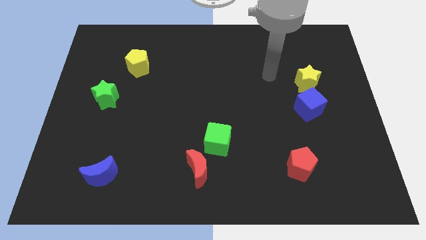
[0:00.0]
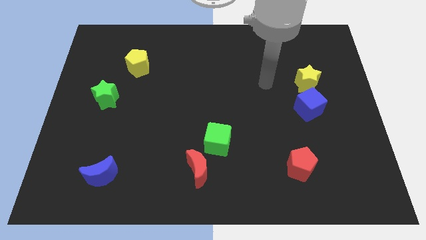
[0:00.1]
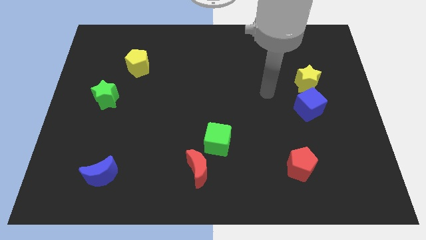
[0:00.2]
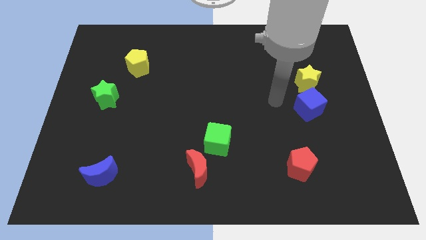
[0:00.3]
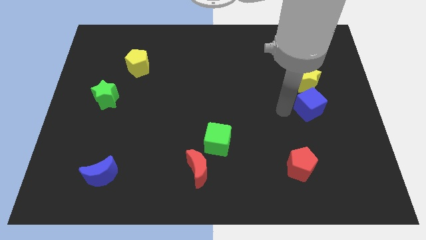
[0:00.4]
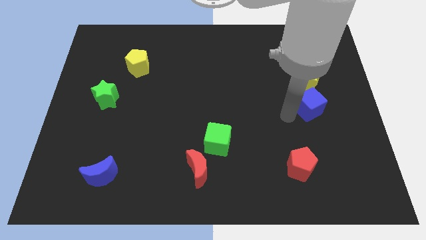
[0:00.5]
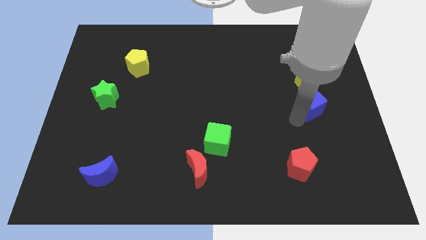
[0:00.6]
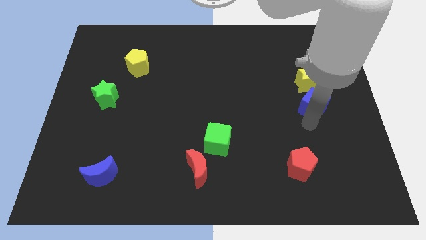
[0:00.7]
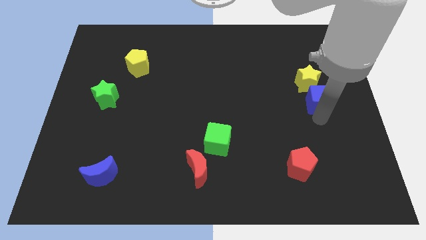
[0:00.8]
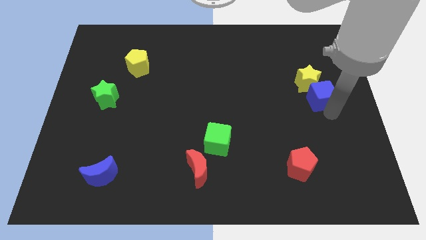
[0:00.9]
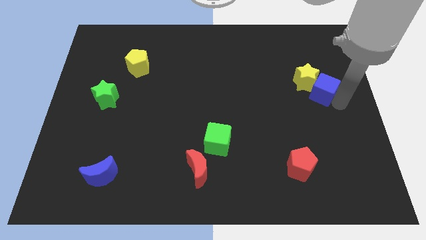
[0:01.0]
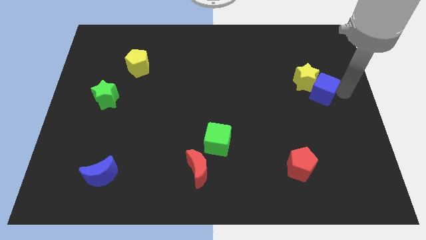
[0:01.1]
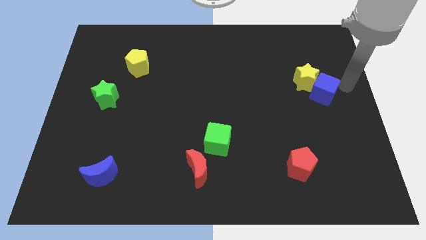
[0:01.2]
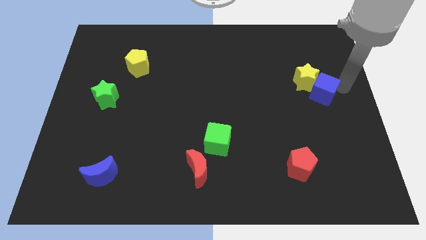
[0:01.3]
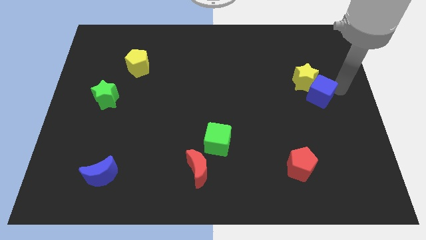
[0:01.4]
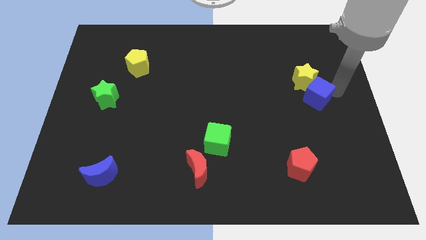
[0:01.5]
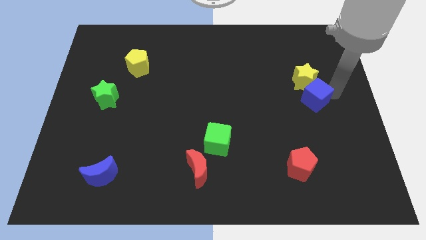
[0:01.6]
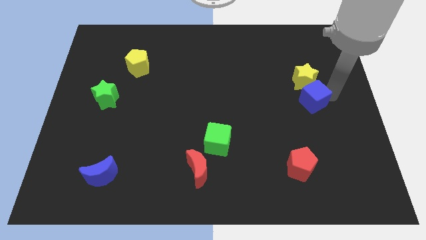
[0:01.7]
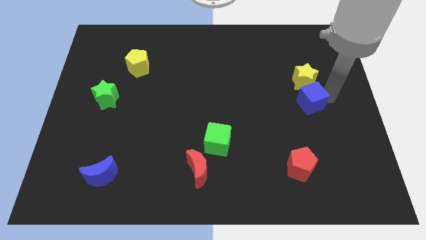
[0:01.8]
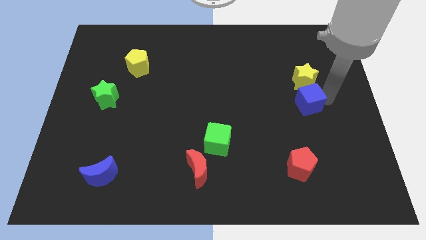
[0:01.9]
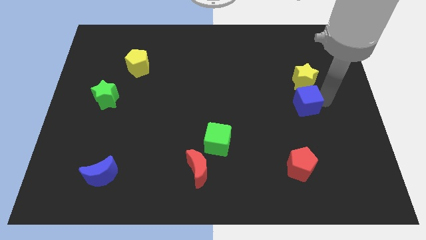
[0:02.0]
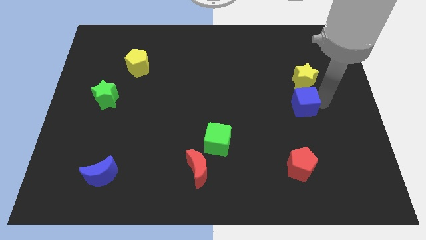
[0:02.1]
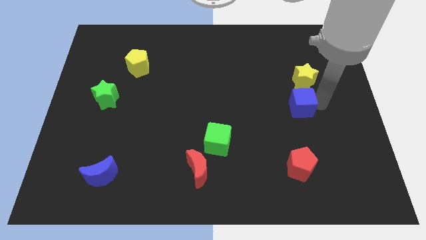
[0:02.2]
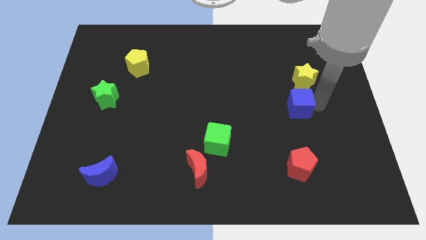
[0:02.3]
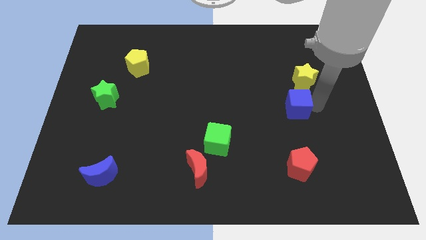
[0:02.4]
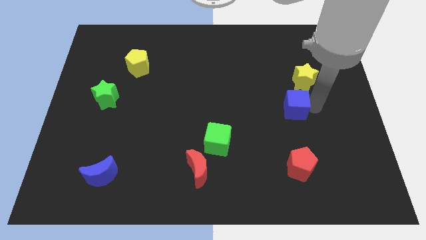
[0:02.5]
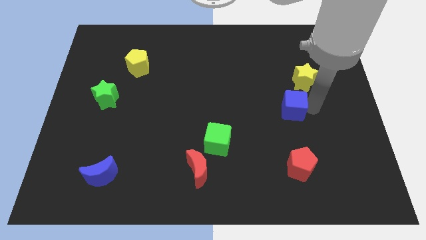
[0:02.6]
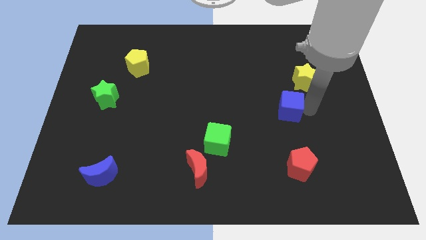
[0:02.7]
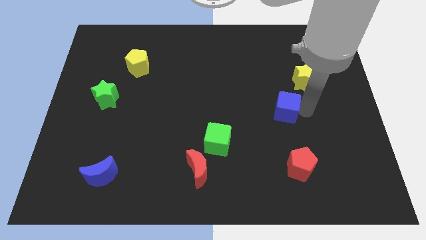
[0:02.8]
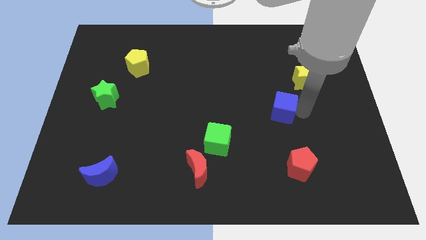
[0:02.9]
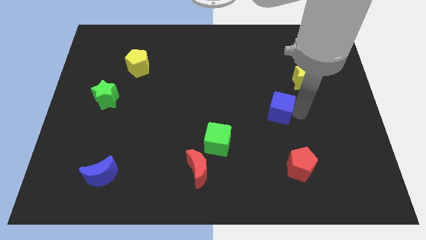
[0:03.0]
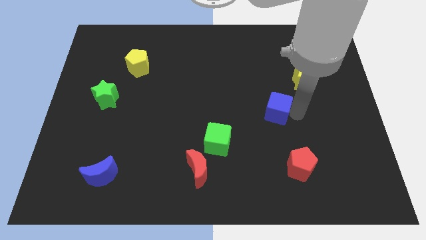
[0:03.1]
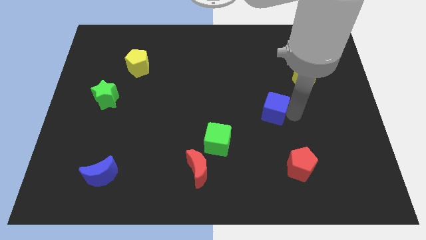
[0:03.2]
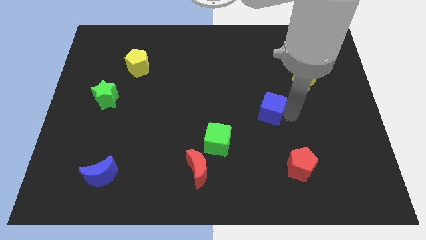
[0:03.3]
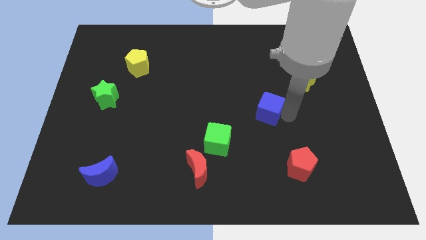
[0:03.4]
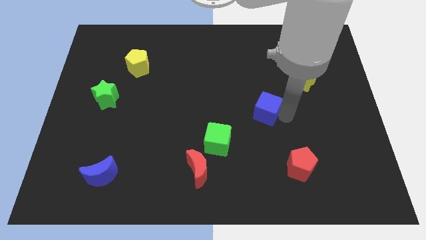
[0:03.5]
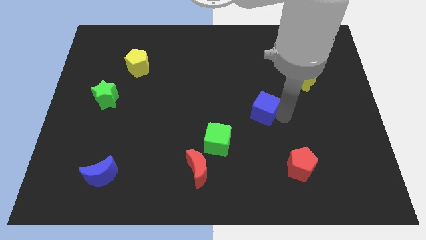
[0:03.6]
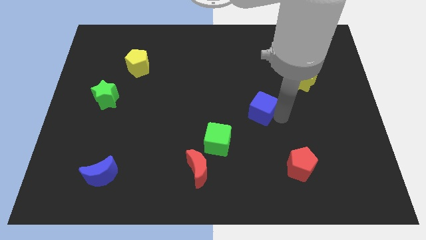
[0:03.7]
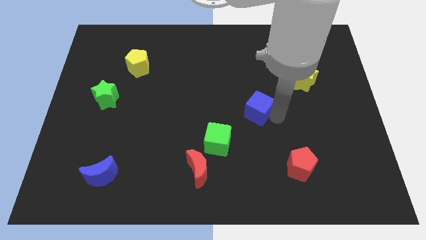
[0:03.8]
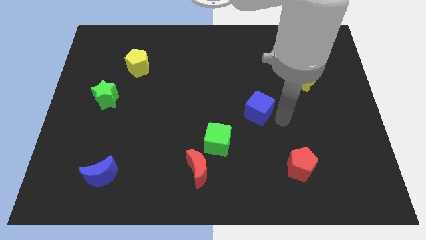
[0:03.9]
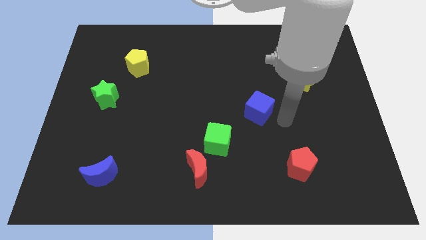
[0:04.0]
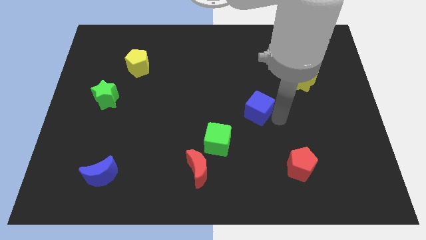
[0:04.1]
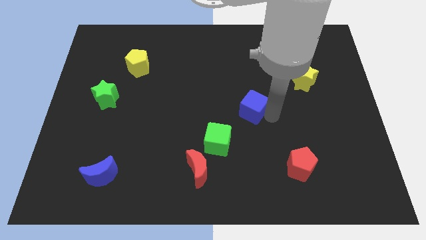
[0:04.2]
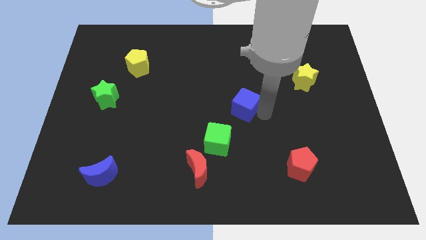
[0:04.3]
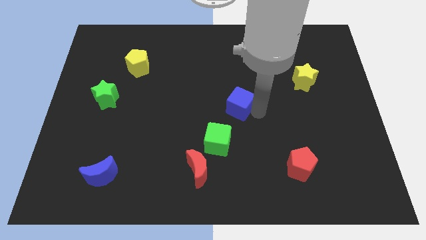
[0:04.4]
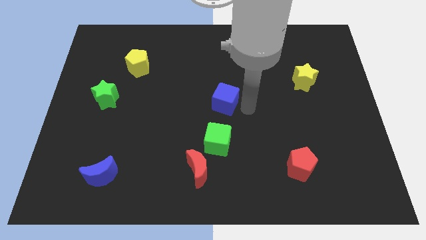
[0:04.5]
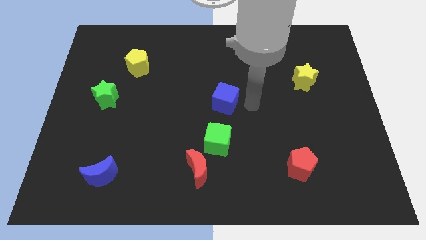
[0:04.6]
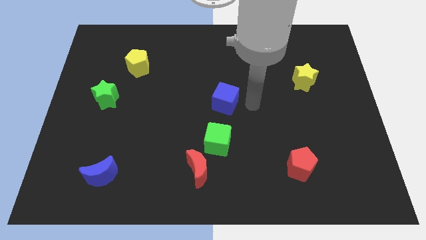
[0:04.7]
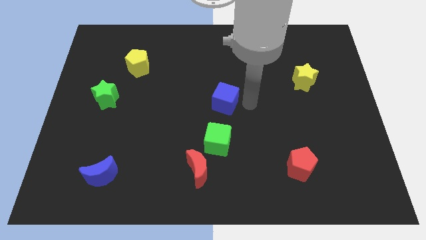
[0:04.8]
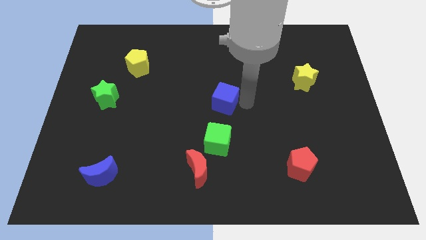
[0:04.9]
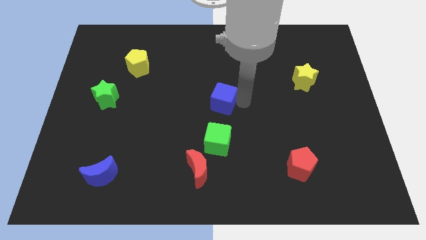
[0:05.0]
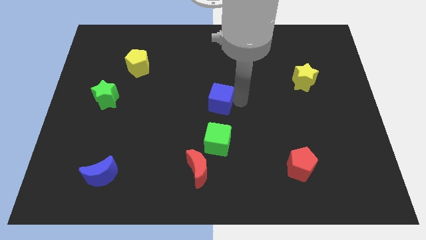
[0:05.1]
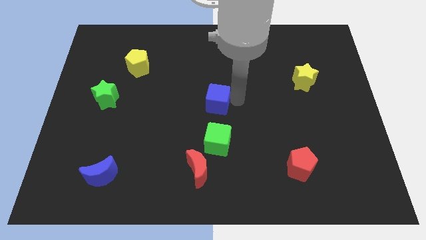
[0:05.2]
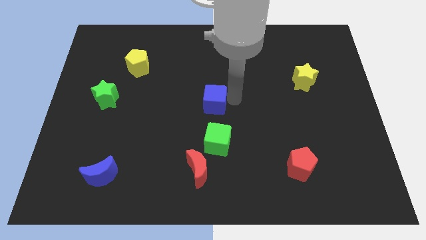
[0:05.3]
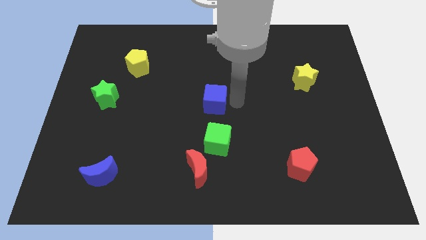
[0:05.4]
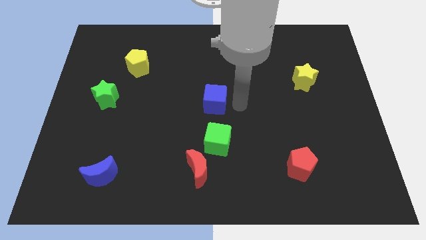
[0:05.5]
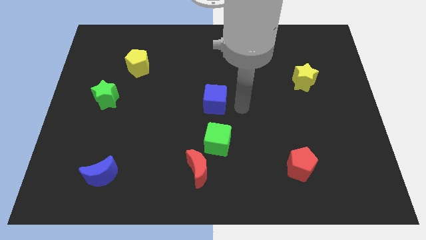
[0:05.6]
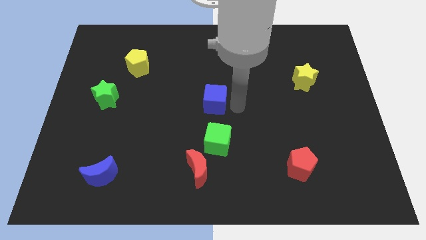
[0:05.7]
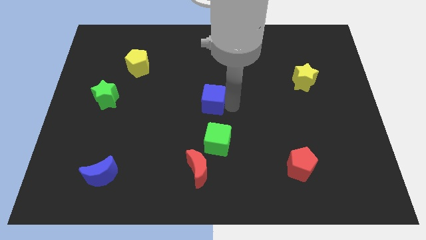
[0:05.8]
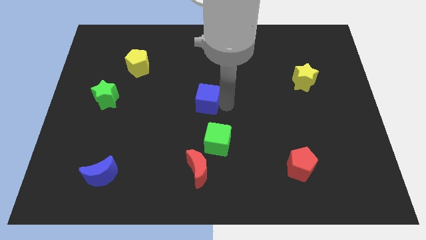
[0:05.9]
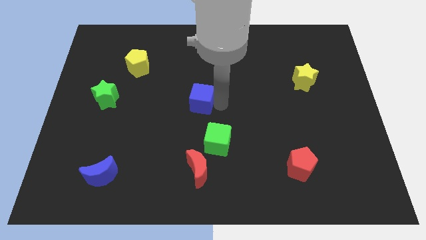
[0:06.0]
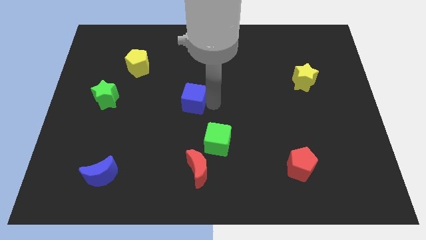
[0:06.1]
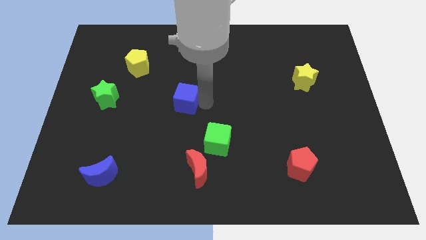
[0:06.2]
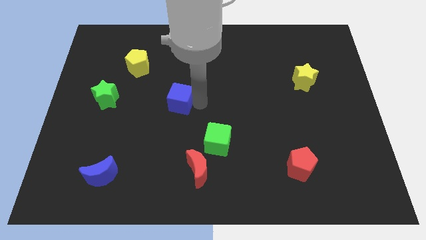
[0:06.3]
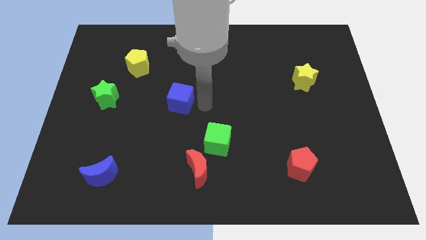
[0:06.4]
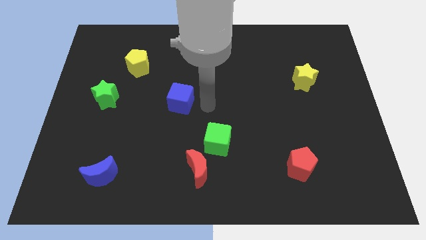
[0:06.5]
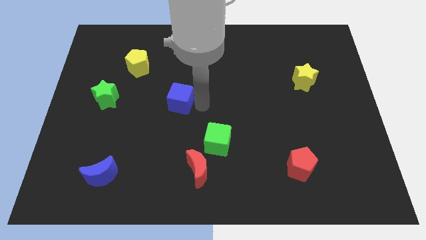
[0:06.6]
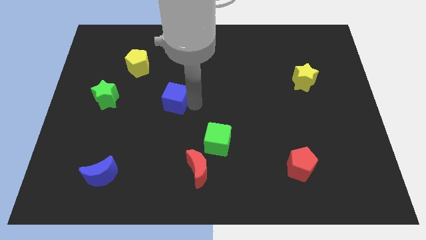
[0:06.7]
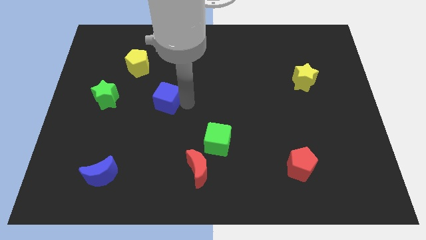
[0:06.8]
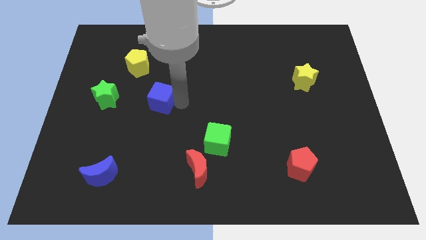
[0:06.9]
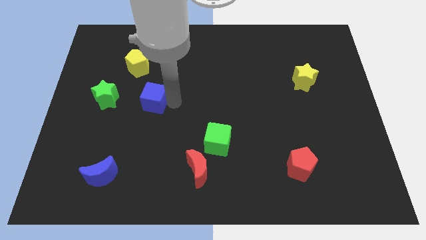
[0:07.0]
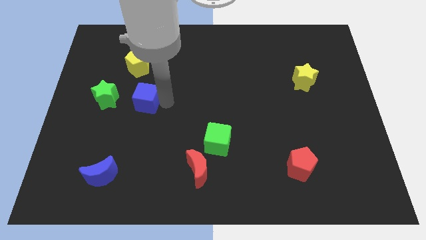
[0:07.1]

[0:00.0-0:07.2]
put the blue cube to the bottom side of the yellow pentagon

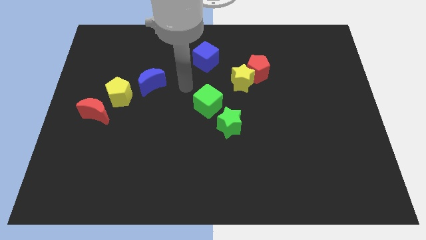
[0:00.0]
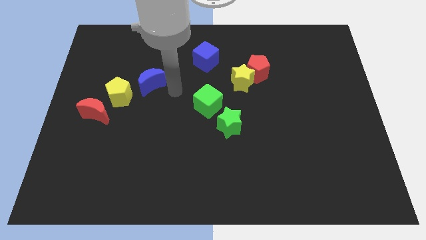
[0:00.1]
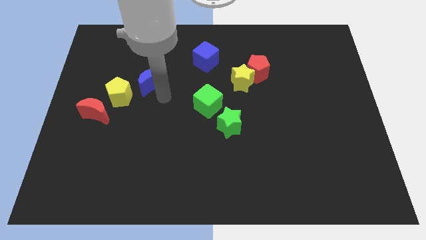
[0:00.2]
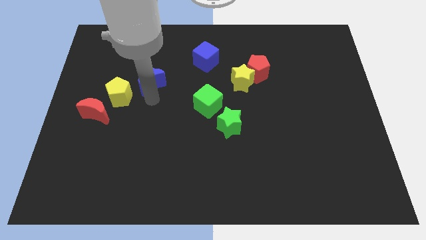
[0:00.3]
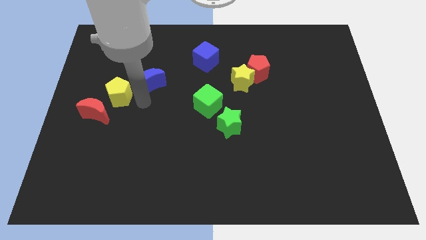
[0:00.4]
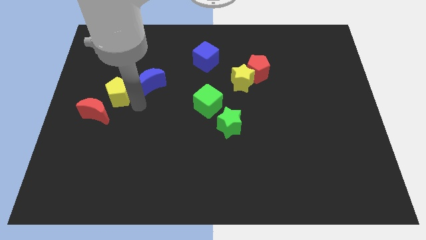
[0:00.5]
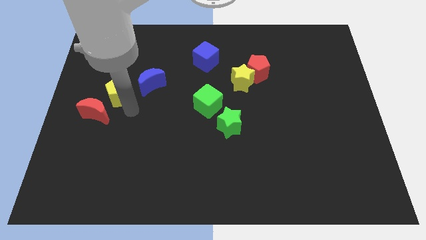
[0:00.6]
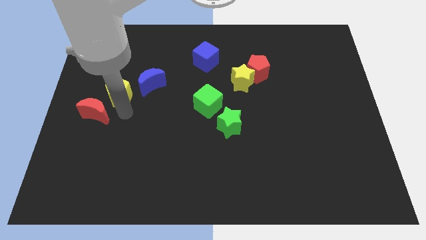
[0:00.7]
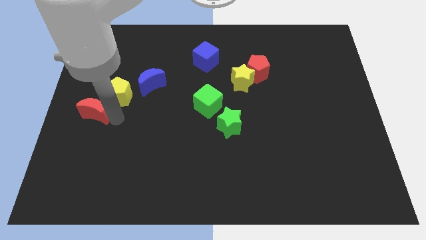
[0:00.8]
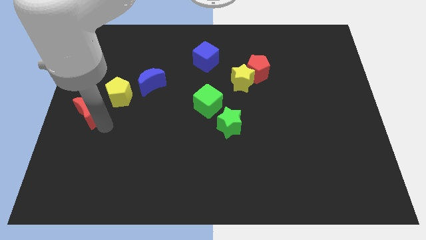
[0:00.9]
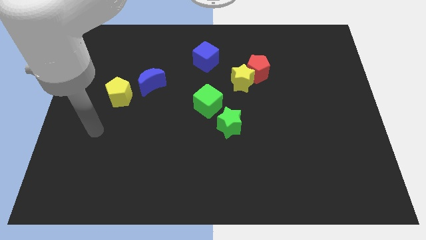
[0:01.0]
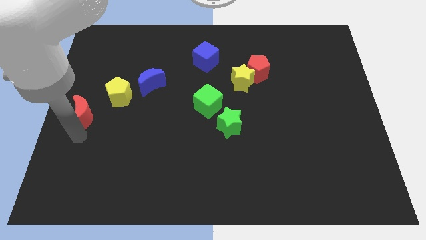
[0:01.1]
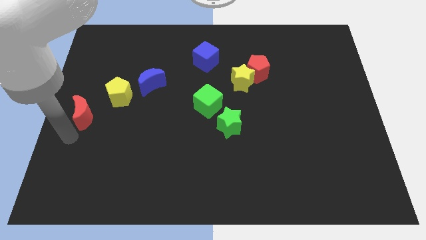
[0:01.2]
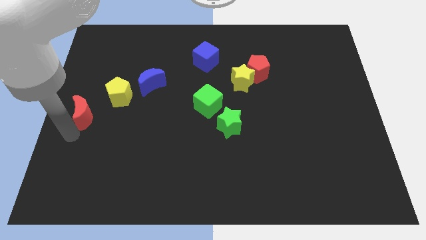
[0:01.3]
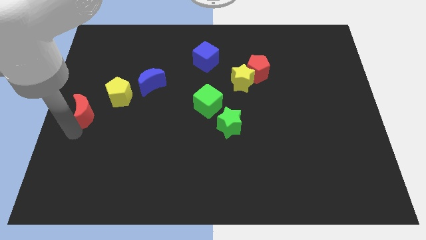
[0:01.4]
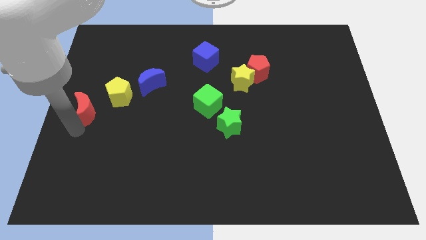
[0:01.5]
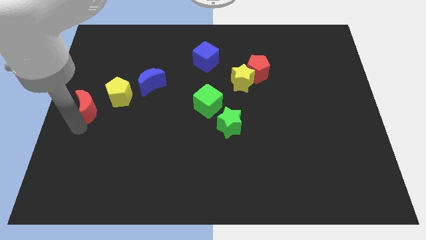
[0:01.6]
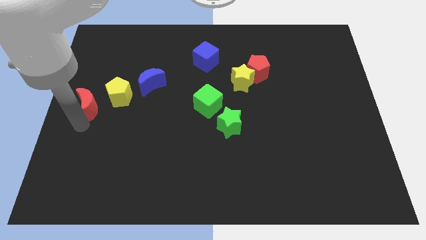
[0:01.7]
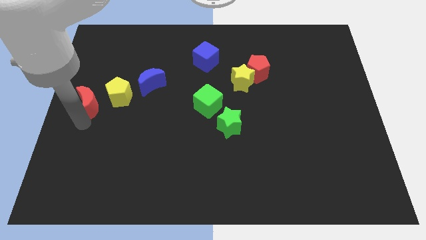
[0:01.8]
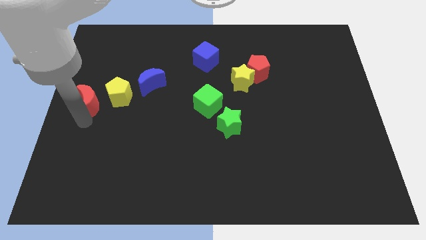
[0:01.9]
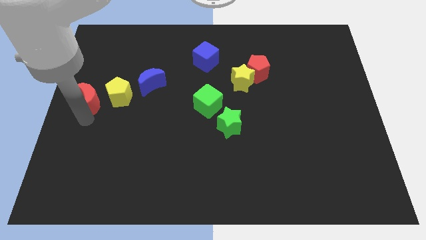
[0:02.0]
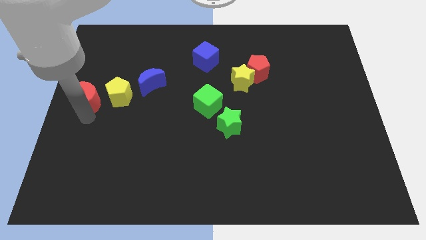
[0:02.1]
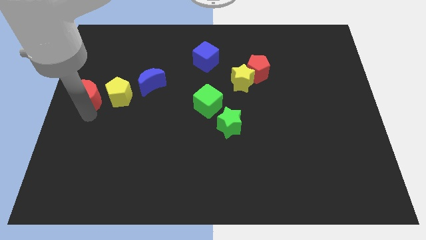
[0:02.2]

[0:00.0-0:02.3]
push the red moon diagonally up and to the left of the yellow pentagon
